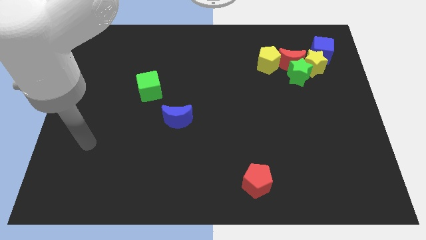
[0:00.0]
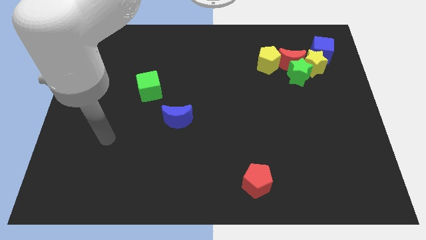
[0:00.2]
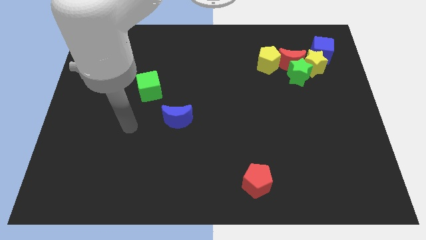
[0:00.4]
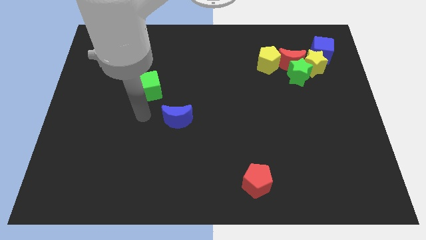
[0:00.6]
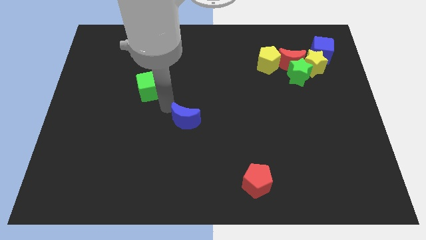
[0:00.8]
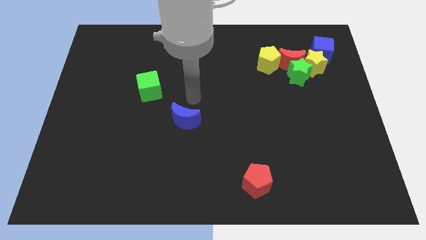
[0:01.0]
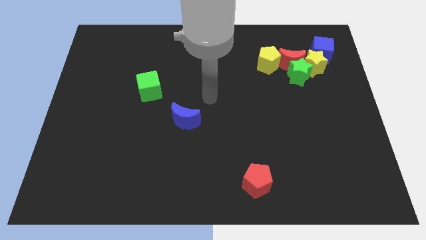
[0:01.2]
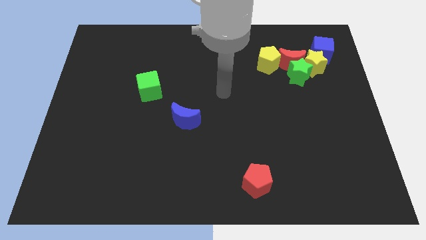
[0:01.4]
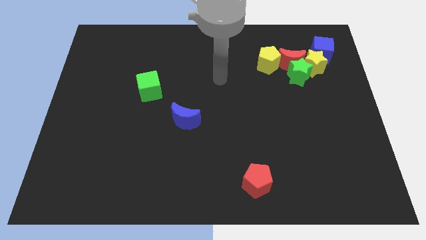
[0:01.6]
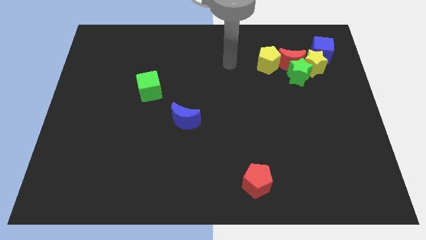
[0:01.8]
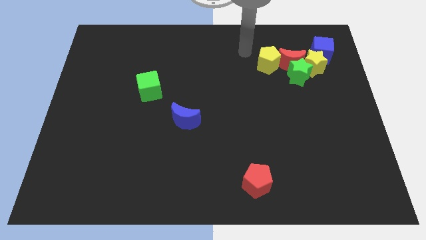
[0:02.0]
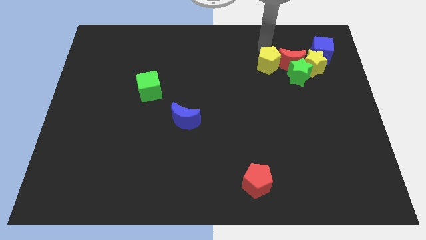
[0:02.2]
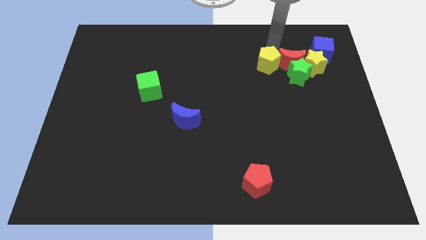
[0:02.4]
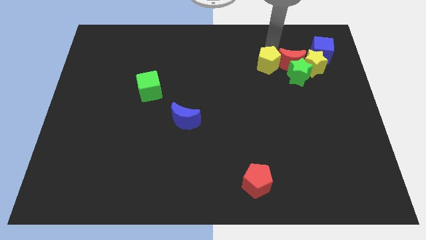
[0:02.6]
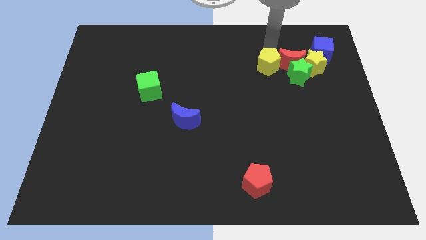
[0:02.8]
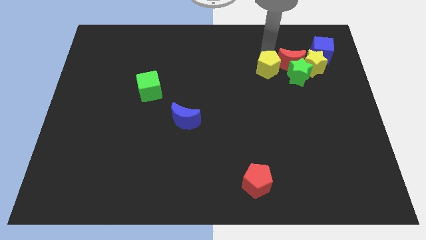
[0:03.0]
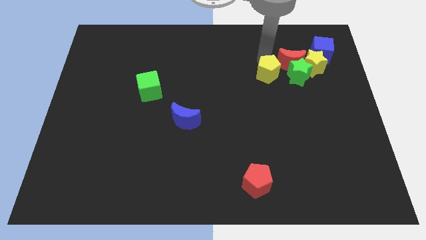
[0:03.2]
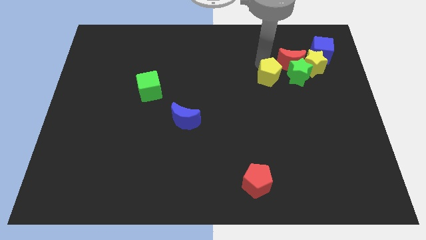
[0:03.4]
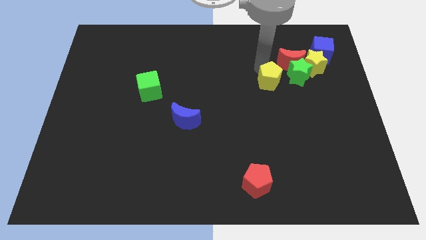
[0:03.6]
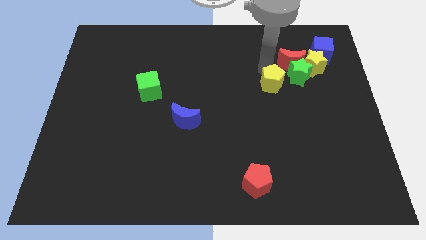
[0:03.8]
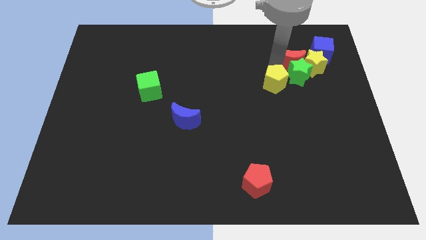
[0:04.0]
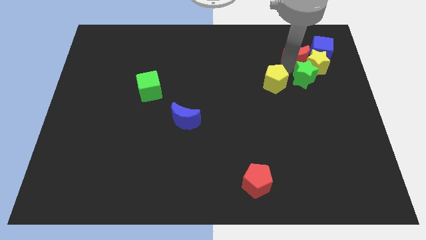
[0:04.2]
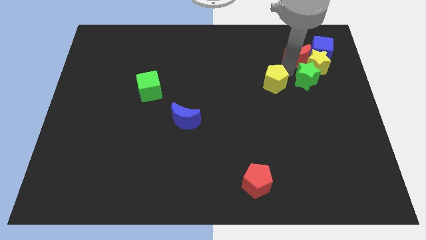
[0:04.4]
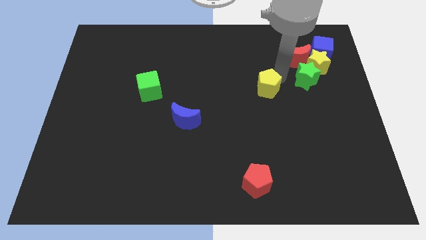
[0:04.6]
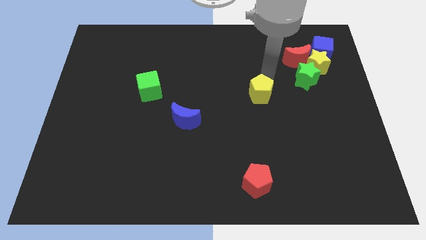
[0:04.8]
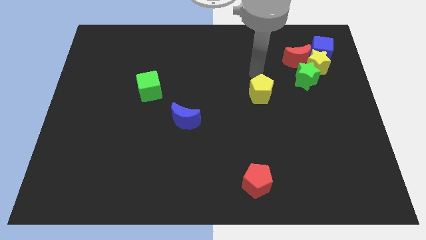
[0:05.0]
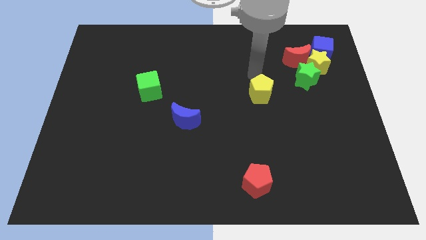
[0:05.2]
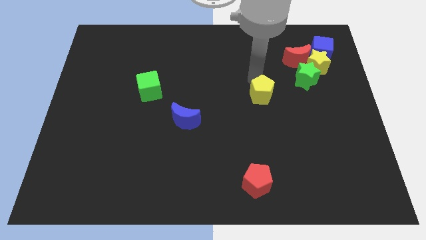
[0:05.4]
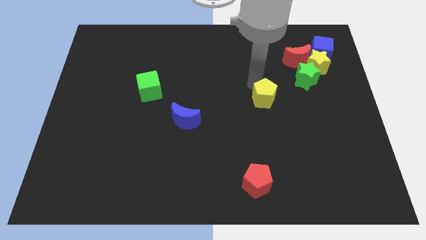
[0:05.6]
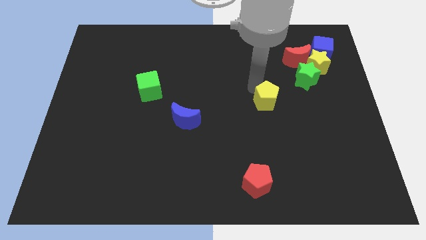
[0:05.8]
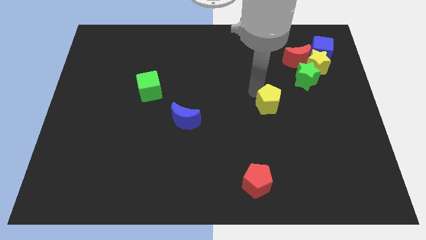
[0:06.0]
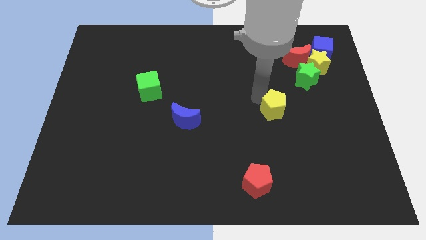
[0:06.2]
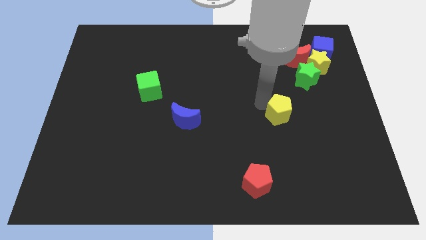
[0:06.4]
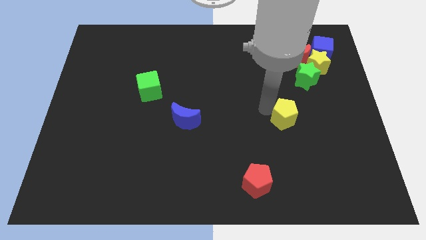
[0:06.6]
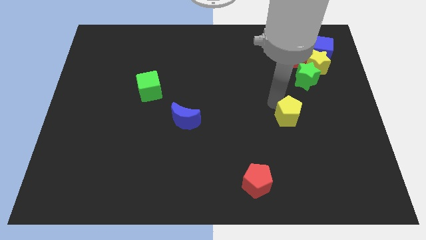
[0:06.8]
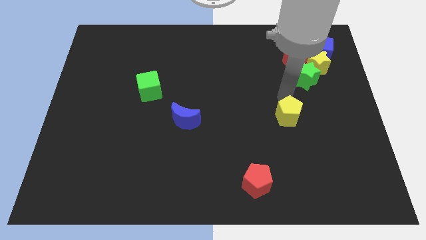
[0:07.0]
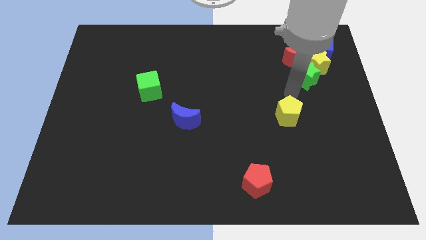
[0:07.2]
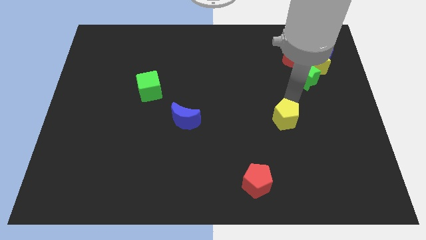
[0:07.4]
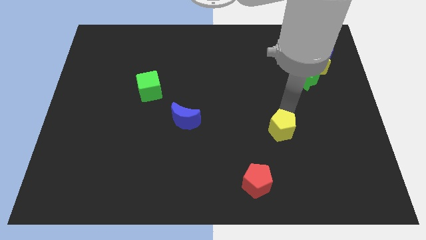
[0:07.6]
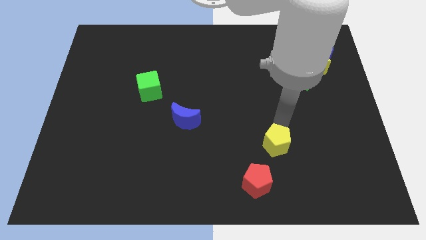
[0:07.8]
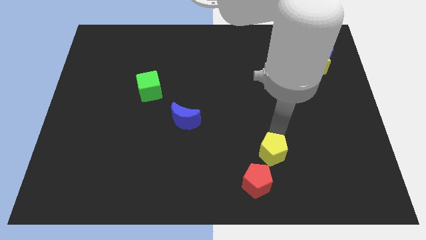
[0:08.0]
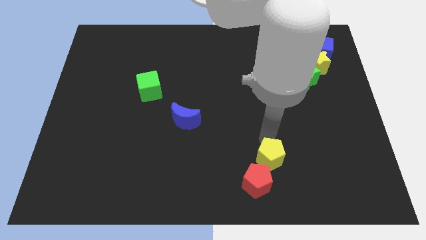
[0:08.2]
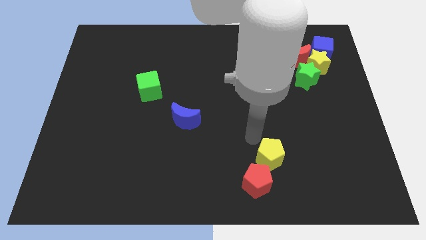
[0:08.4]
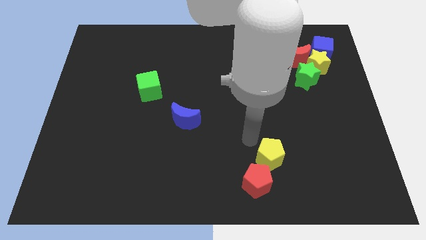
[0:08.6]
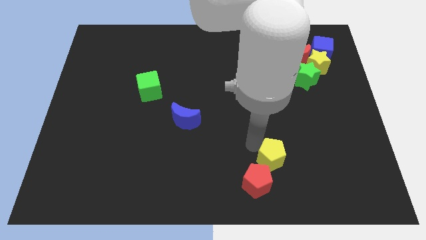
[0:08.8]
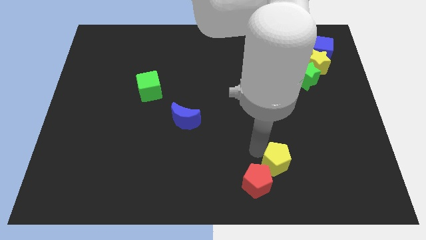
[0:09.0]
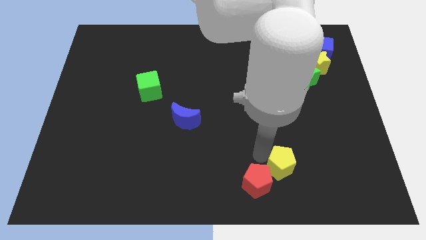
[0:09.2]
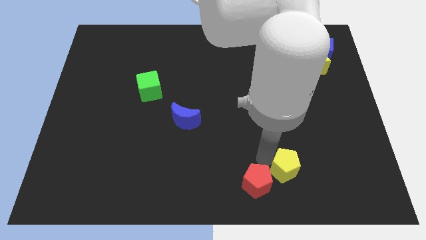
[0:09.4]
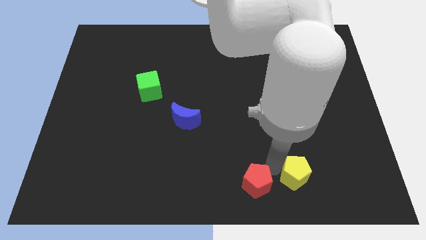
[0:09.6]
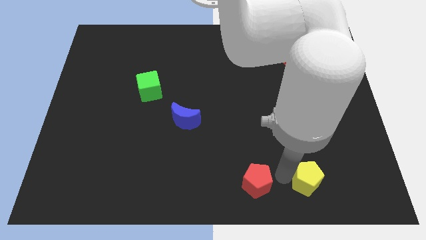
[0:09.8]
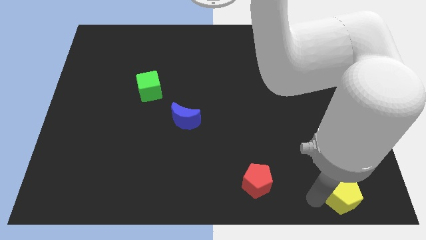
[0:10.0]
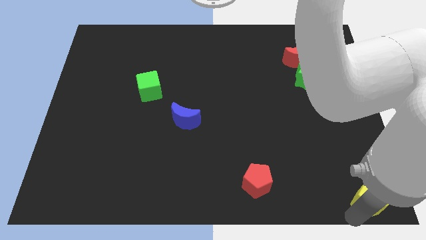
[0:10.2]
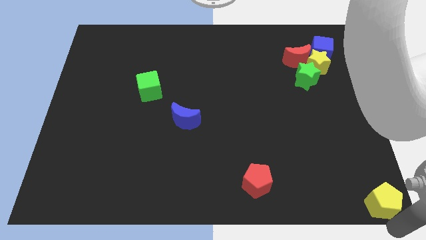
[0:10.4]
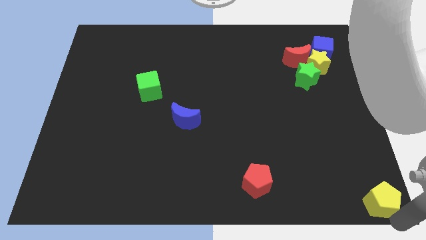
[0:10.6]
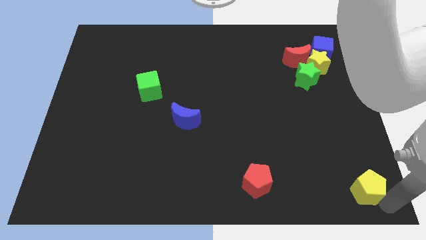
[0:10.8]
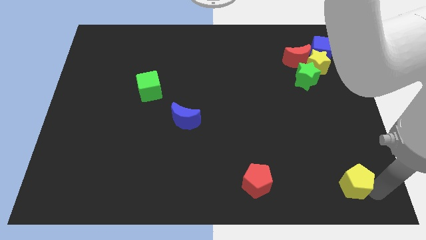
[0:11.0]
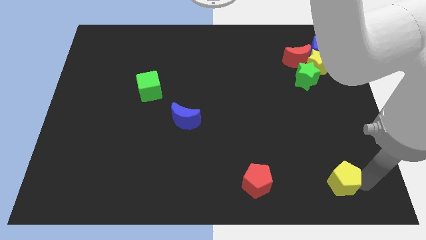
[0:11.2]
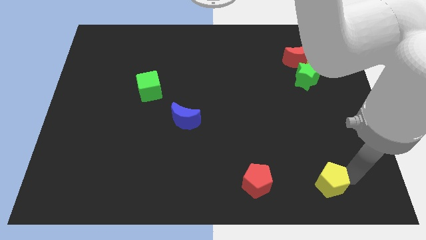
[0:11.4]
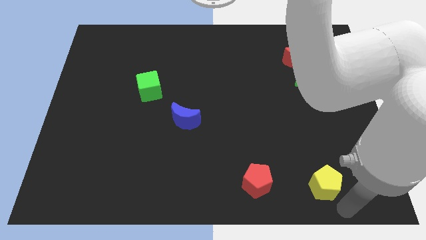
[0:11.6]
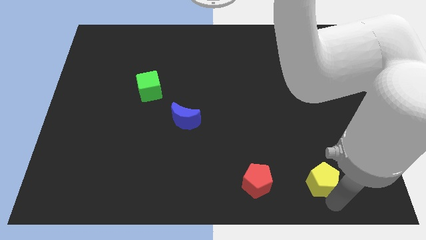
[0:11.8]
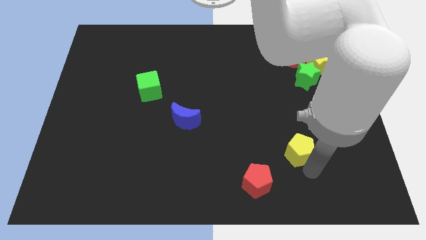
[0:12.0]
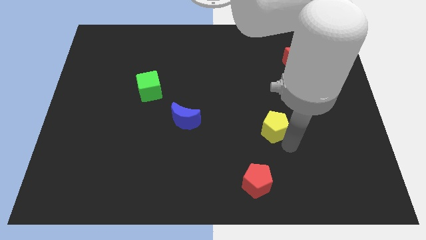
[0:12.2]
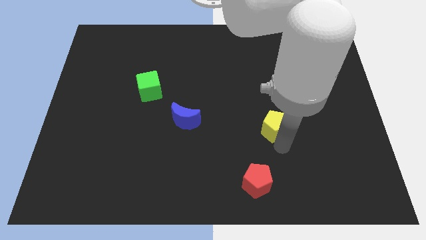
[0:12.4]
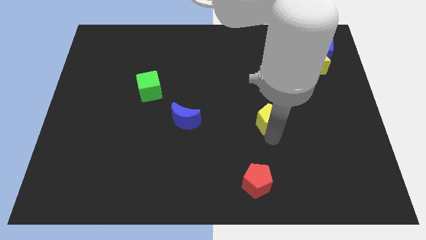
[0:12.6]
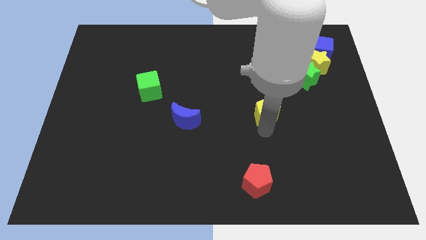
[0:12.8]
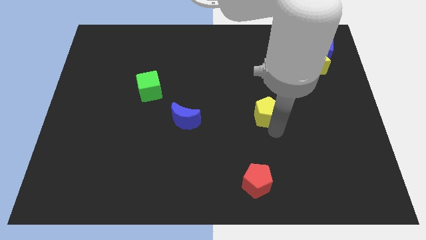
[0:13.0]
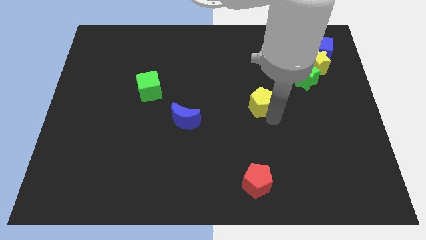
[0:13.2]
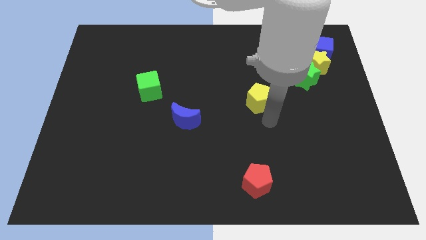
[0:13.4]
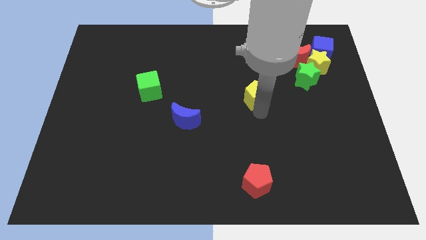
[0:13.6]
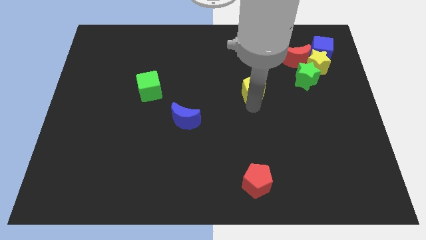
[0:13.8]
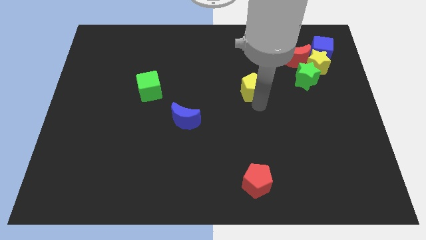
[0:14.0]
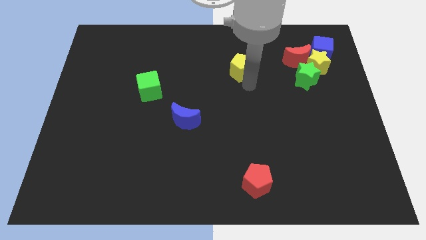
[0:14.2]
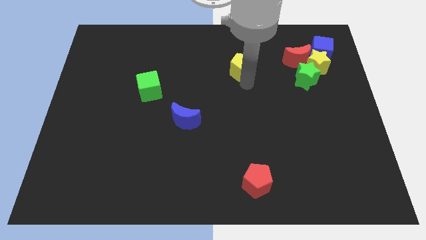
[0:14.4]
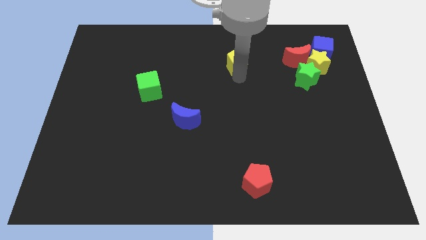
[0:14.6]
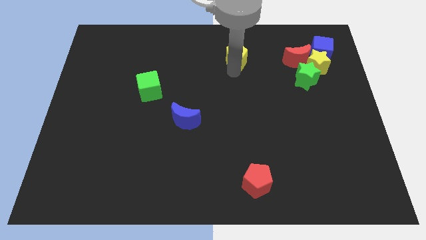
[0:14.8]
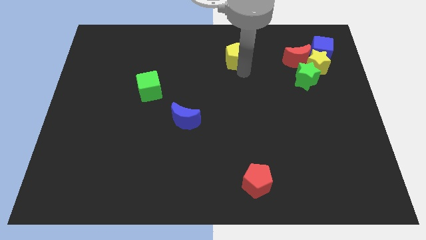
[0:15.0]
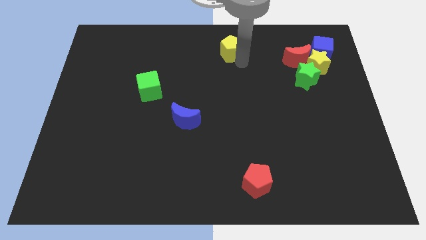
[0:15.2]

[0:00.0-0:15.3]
slide the yellow pentagon to the top
